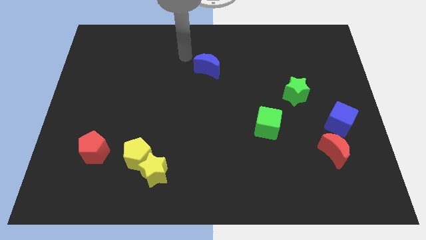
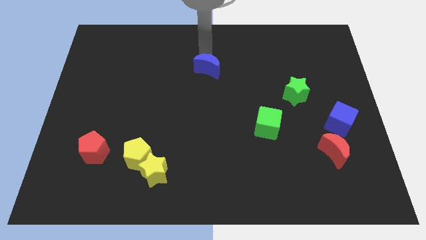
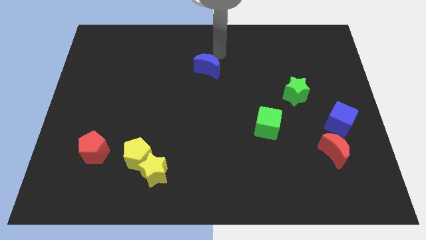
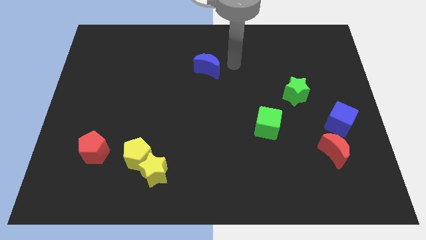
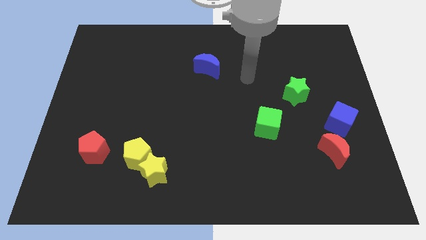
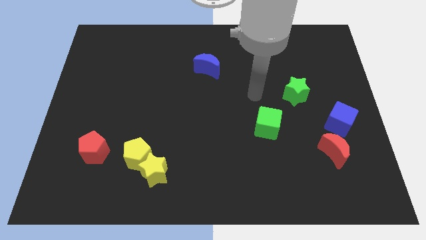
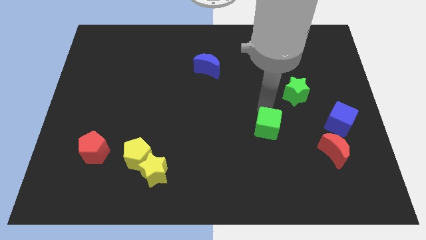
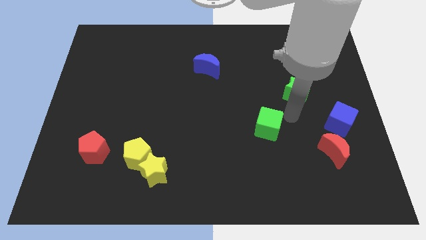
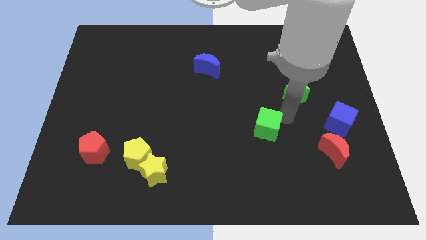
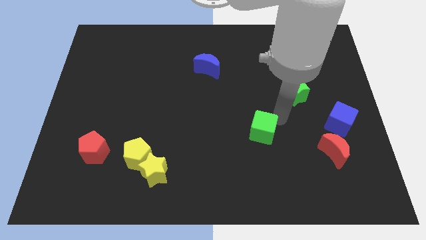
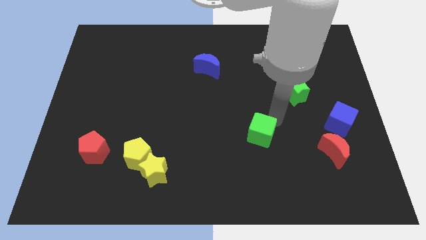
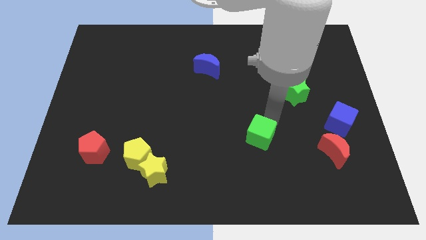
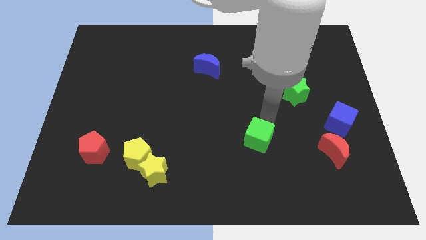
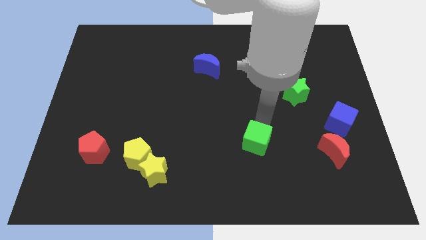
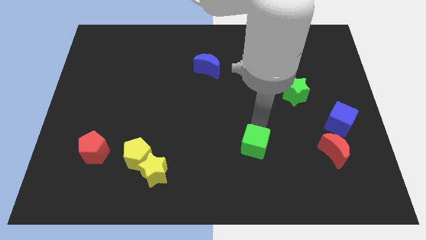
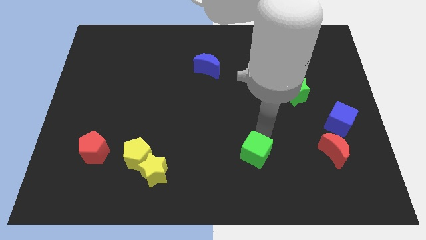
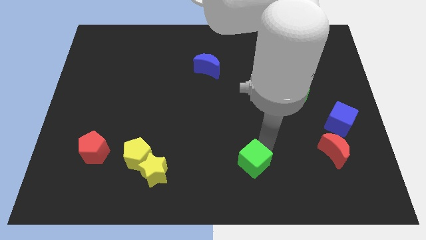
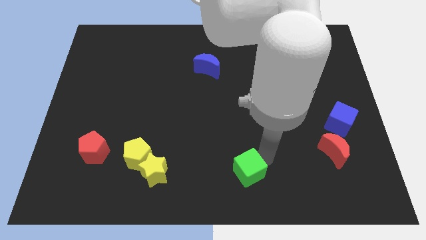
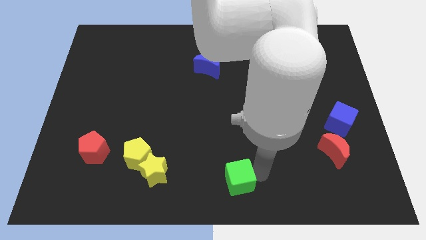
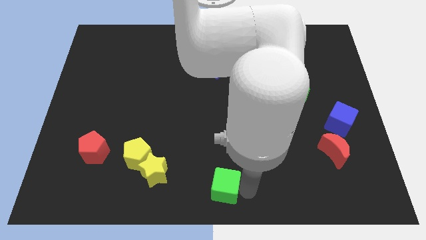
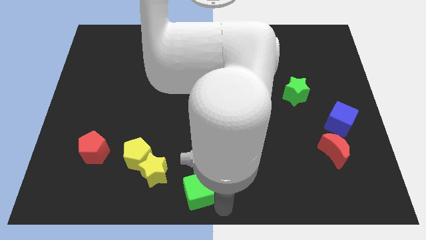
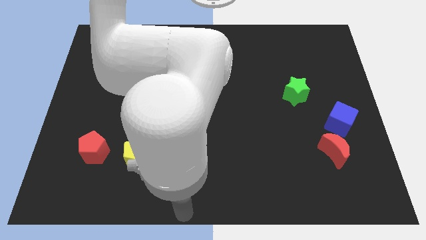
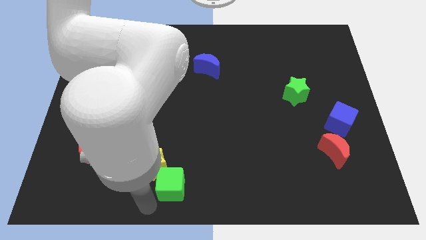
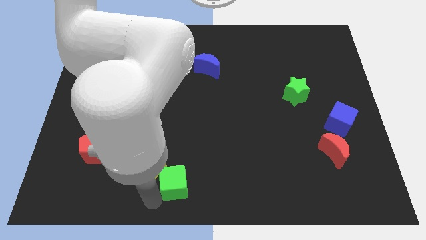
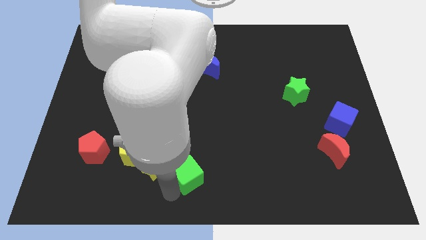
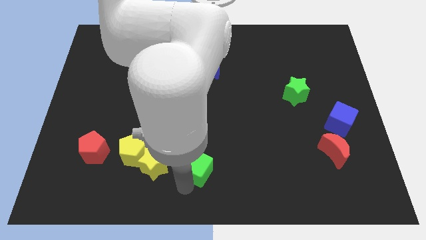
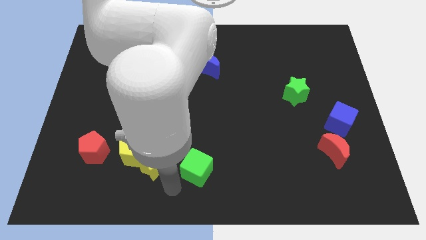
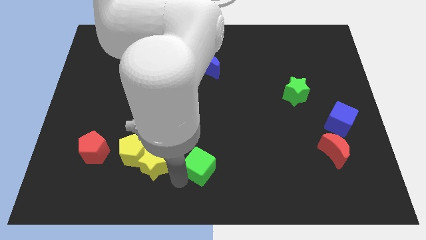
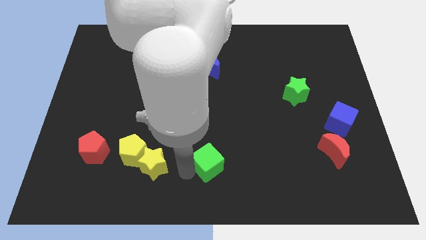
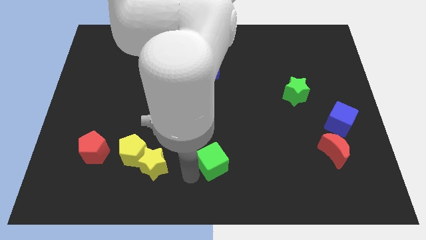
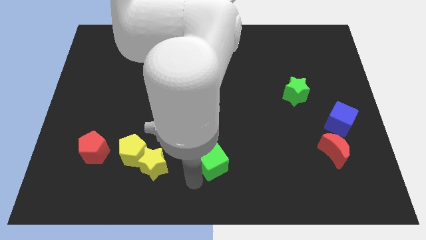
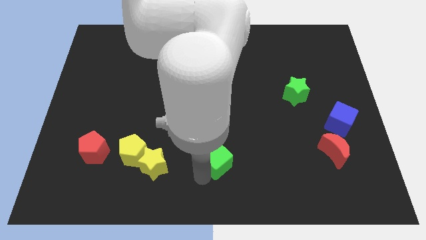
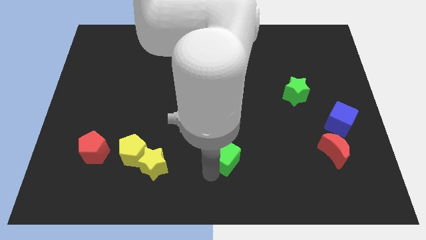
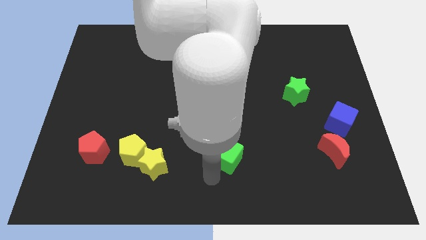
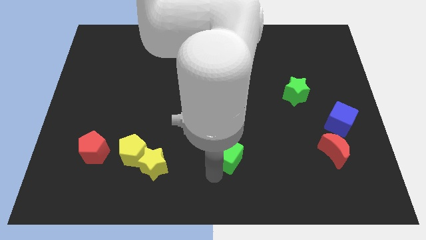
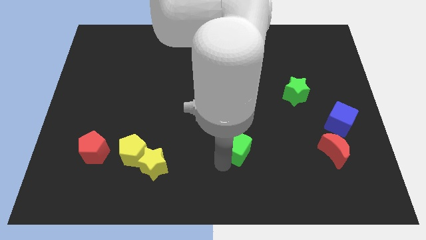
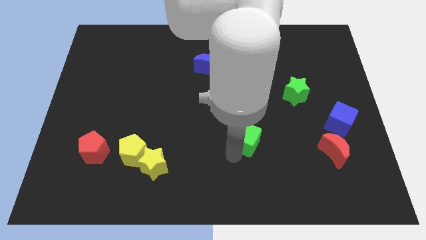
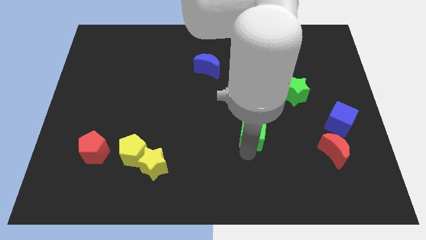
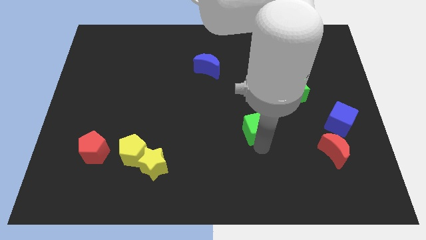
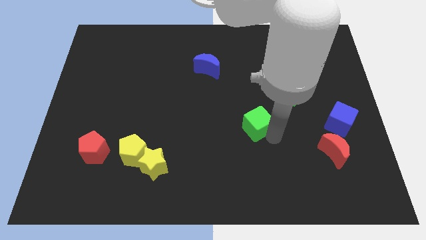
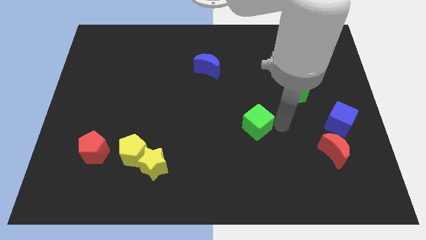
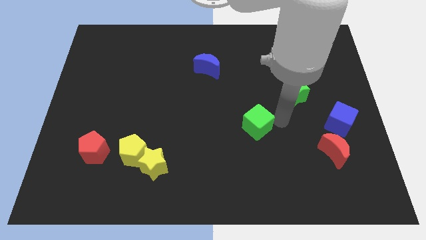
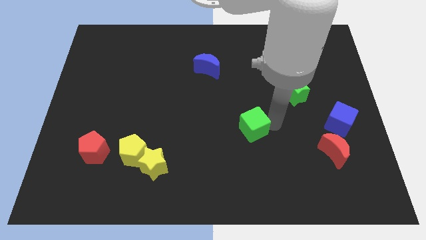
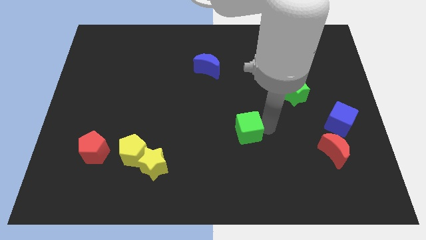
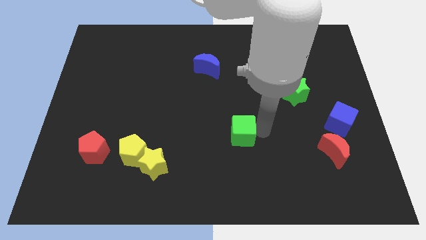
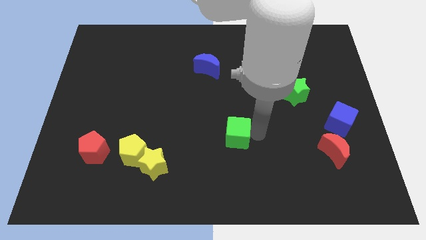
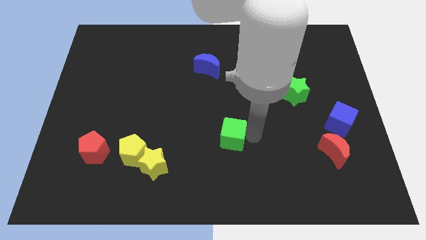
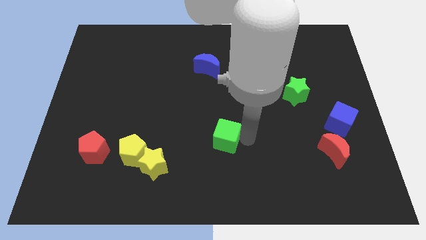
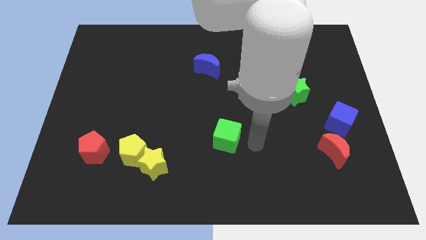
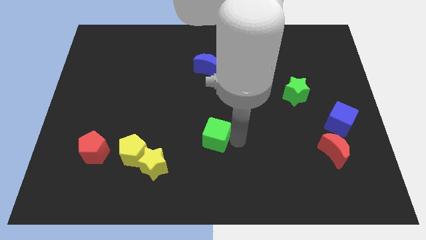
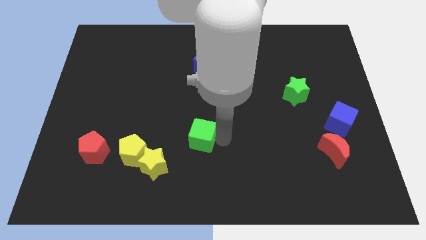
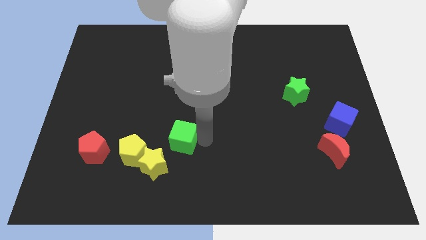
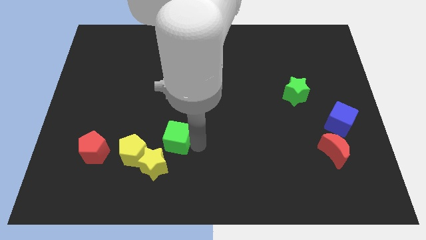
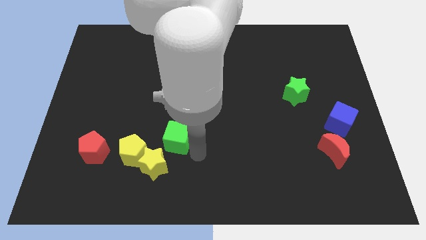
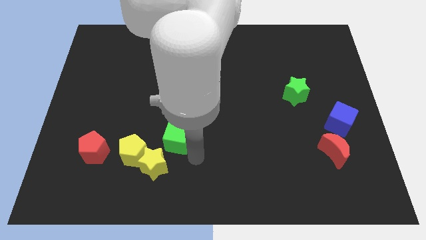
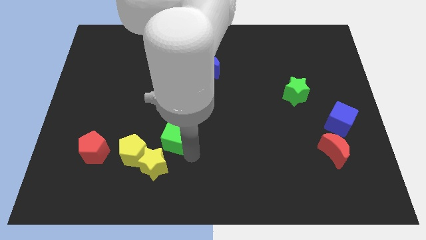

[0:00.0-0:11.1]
push the green cube to the left

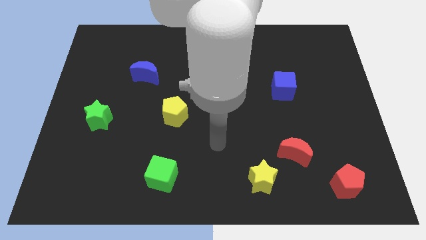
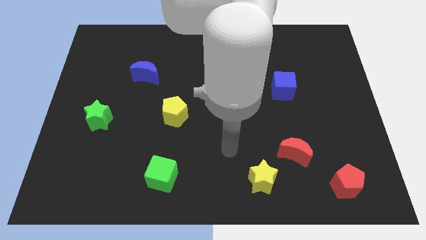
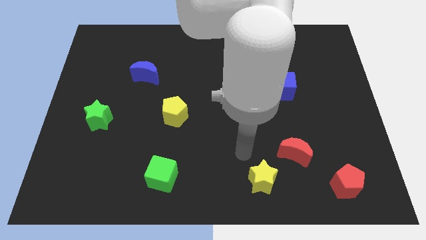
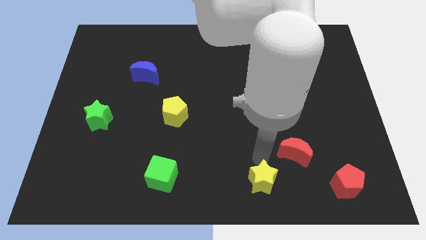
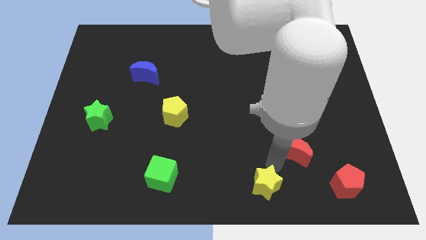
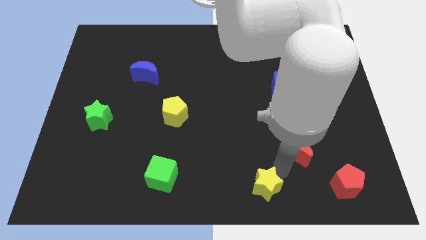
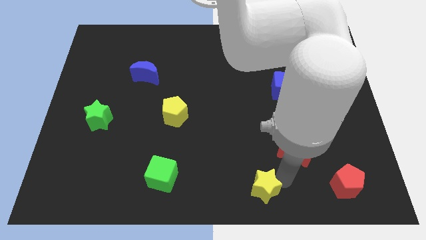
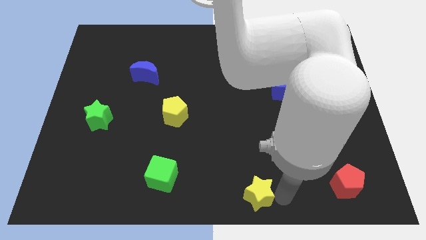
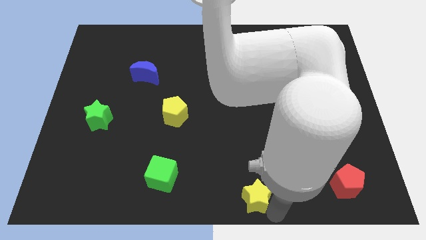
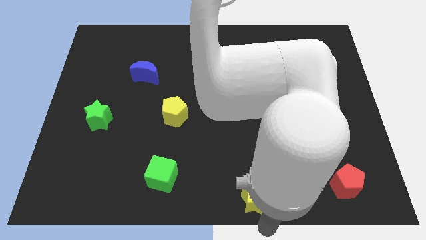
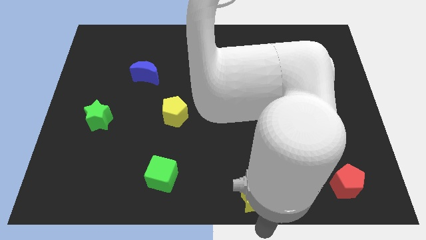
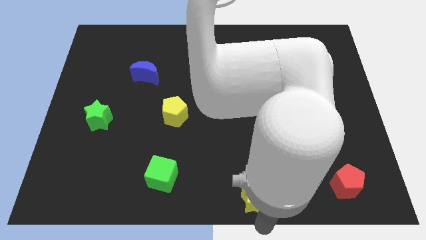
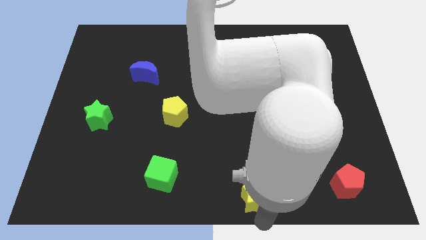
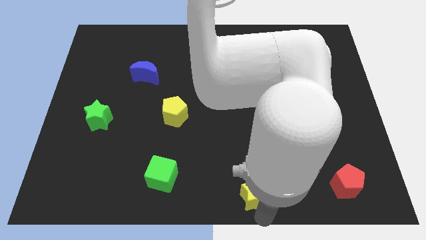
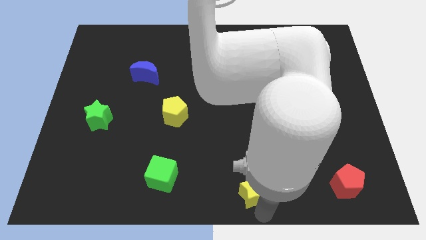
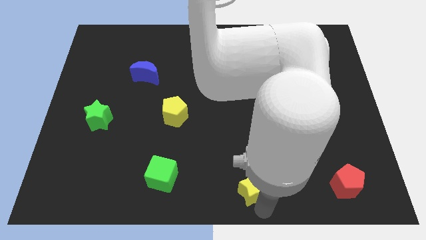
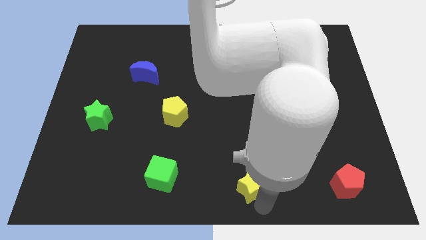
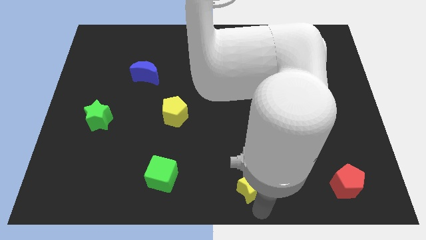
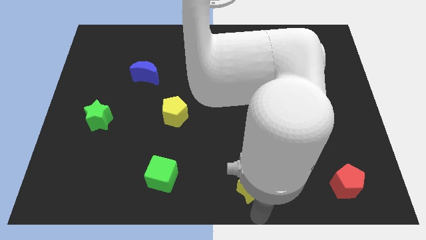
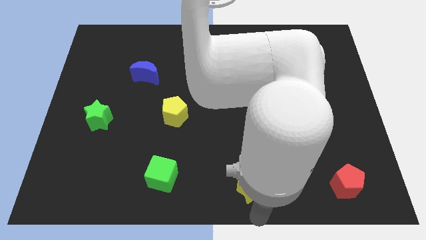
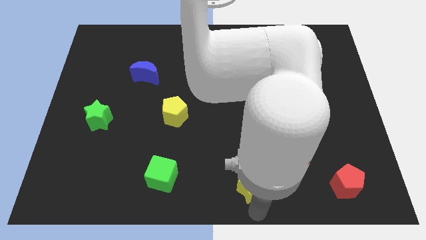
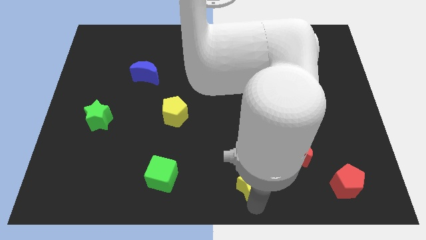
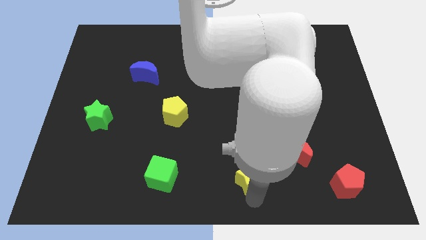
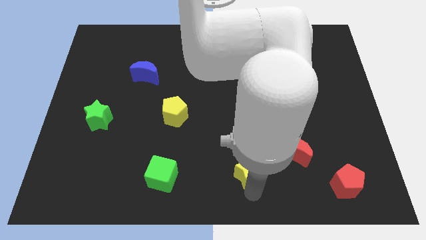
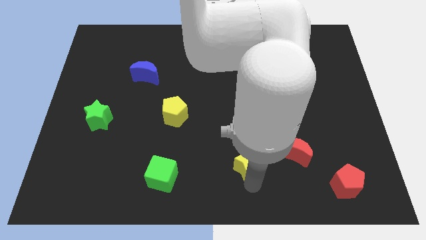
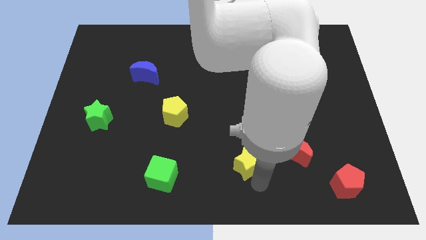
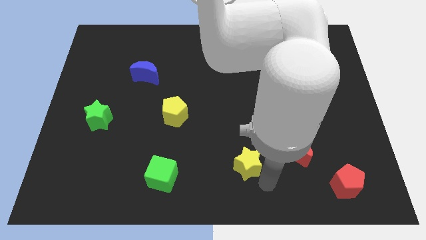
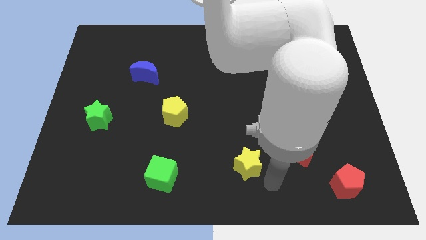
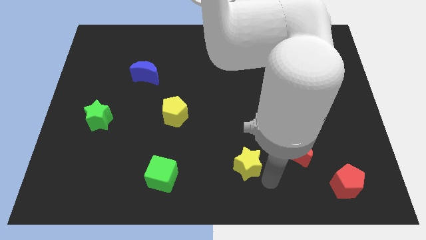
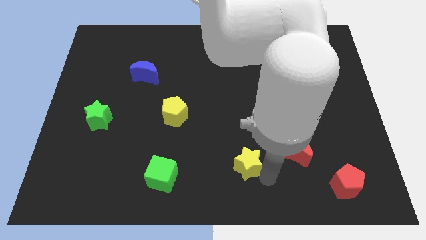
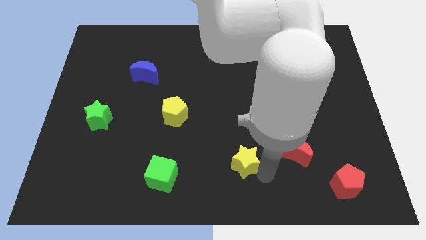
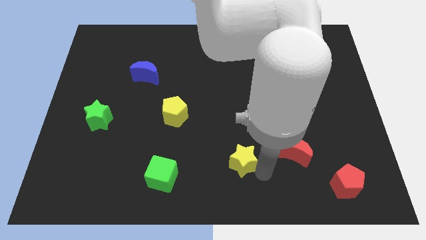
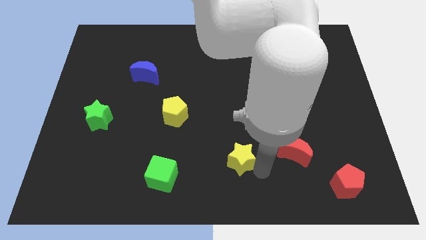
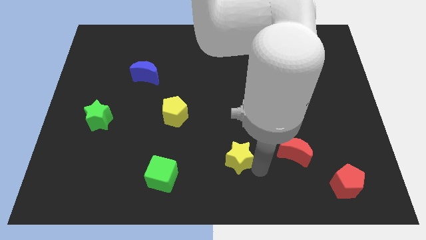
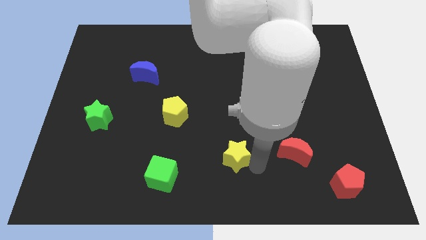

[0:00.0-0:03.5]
slightly push the yellow star up and to the left
